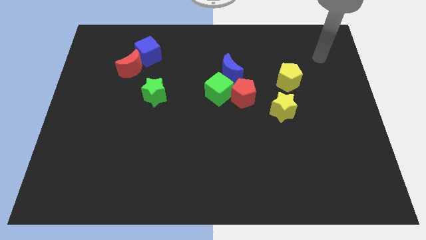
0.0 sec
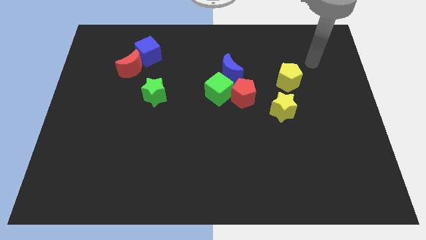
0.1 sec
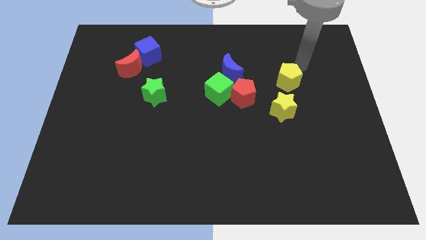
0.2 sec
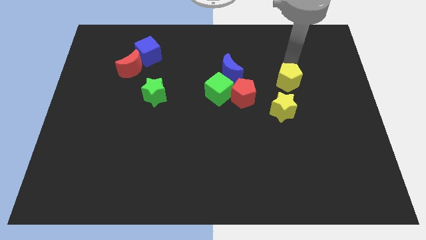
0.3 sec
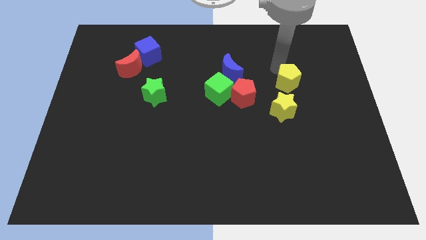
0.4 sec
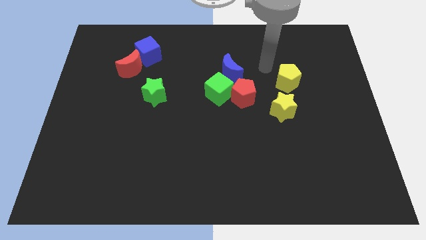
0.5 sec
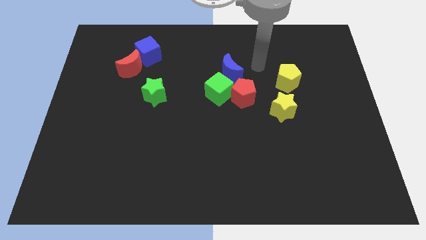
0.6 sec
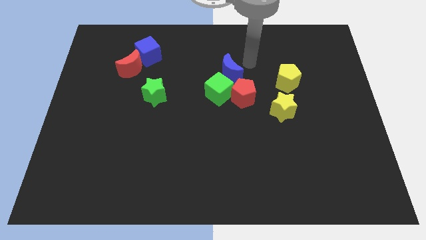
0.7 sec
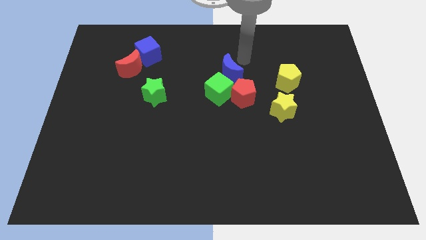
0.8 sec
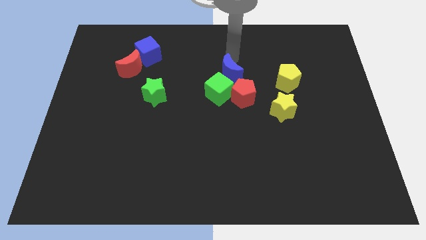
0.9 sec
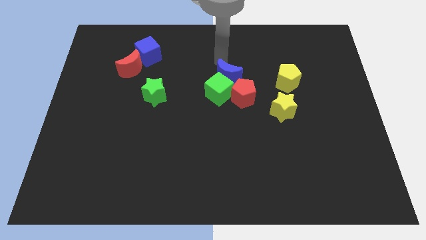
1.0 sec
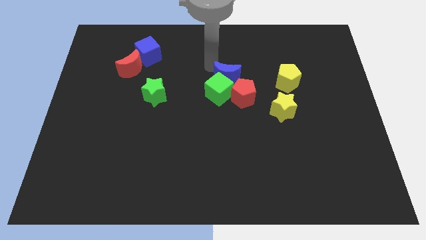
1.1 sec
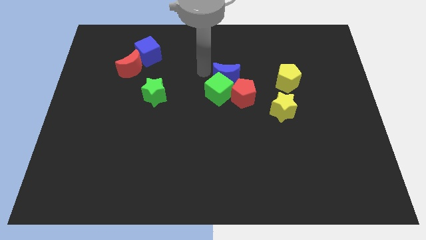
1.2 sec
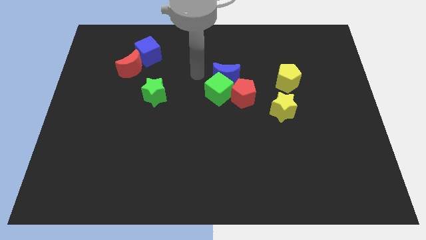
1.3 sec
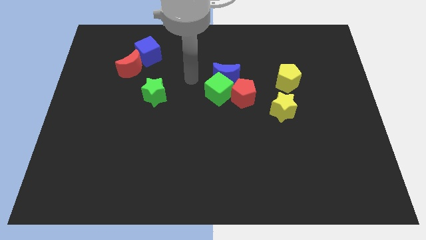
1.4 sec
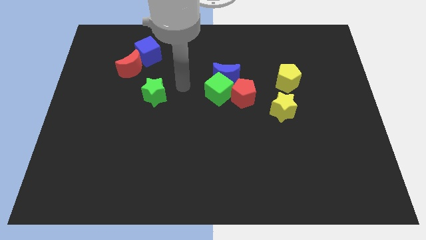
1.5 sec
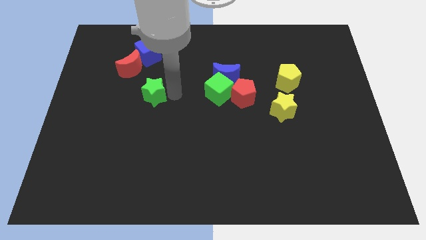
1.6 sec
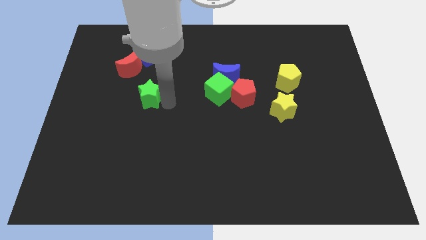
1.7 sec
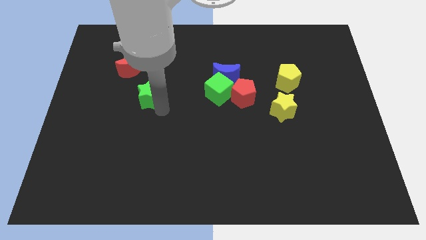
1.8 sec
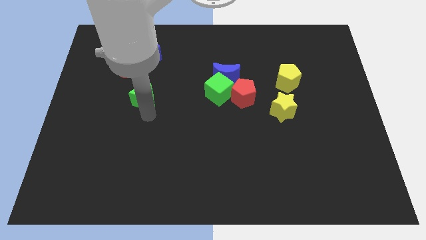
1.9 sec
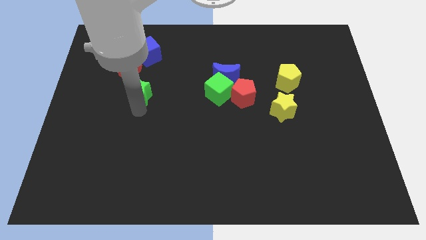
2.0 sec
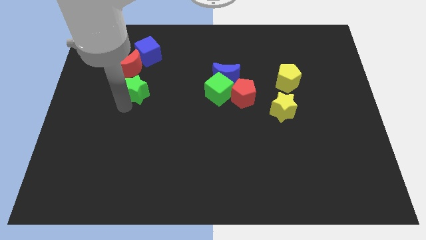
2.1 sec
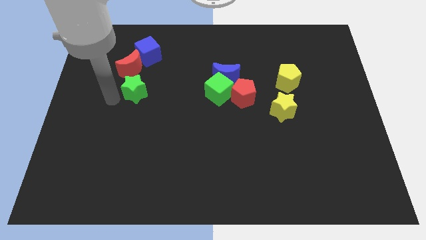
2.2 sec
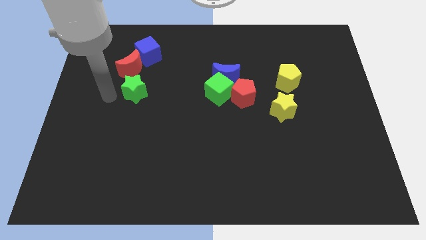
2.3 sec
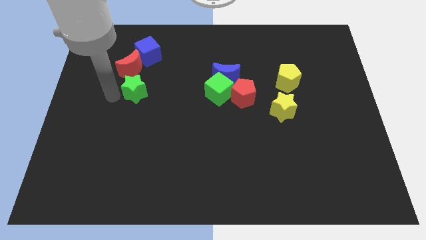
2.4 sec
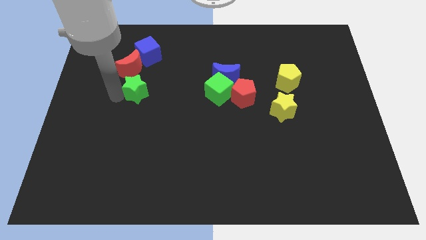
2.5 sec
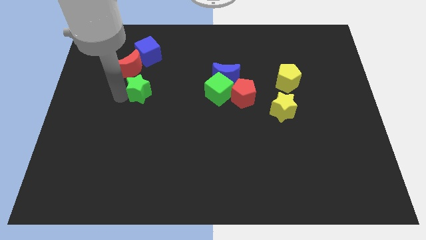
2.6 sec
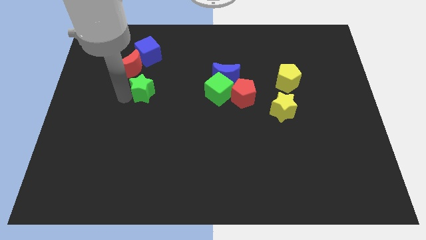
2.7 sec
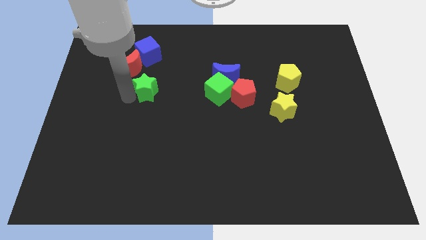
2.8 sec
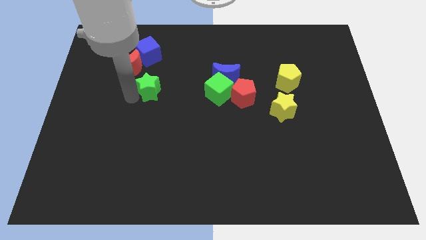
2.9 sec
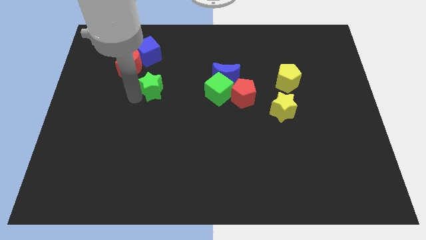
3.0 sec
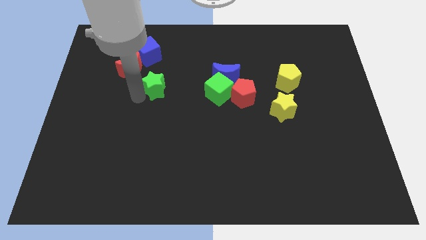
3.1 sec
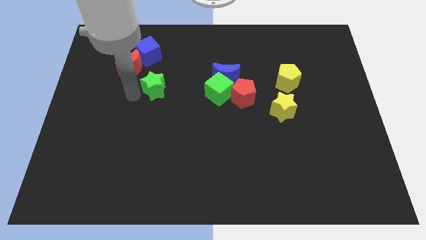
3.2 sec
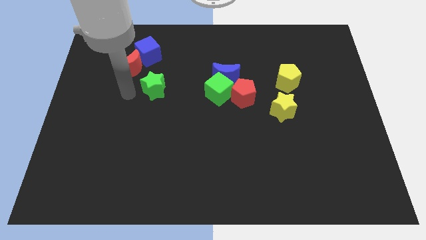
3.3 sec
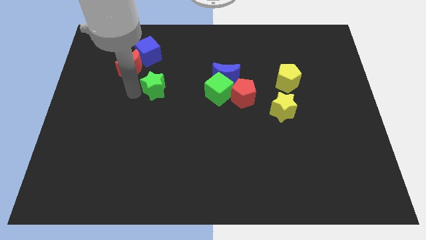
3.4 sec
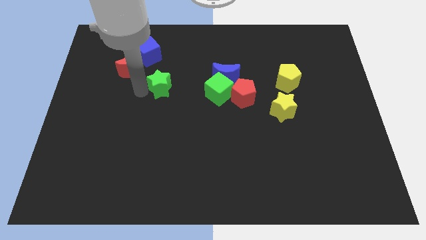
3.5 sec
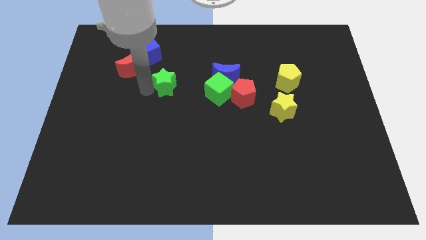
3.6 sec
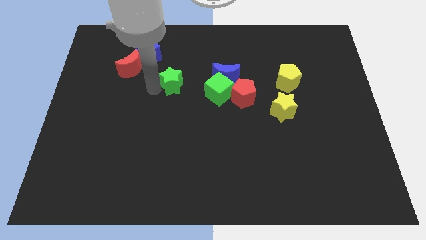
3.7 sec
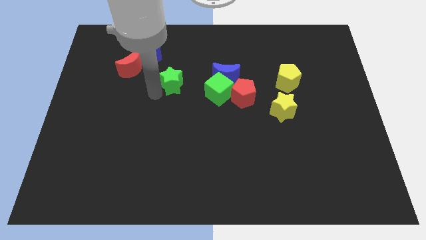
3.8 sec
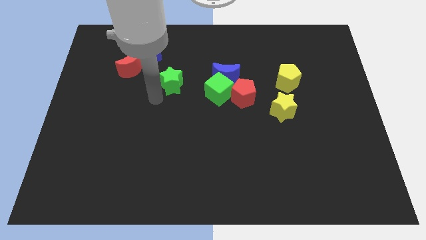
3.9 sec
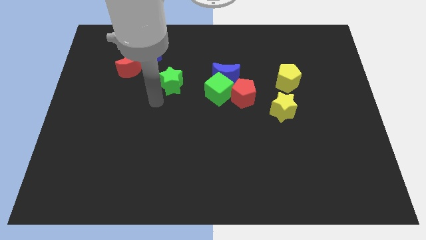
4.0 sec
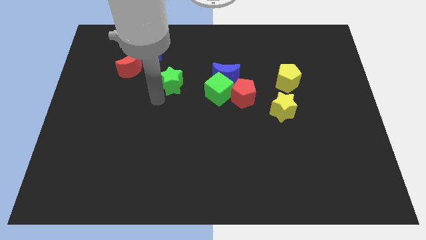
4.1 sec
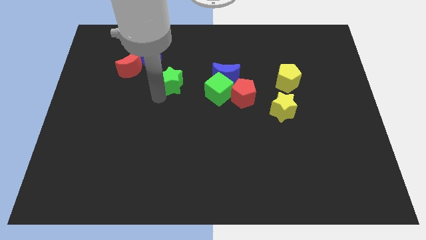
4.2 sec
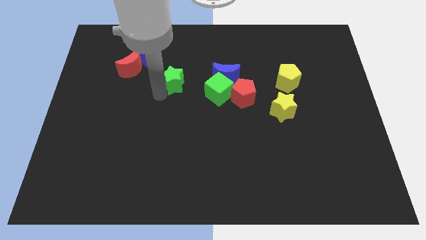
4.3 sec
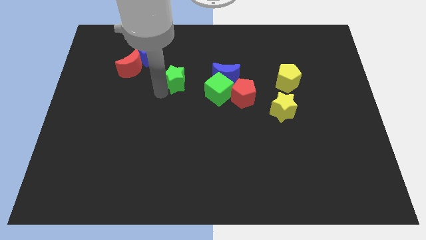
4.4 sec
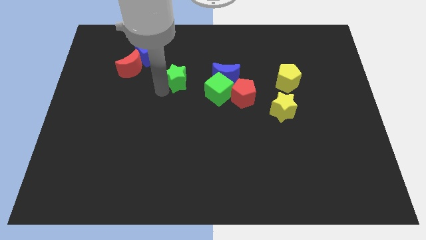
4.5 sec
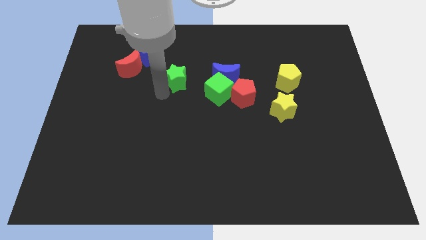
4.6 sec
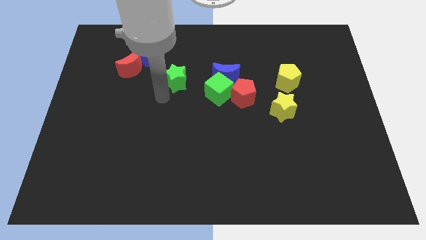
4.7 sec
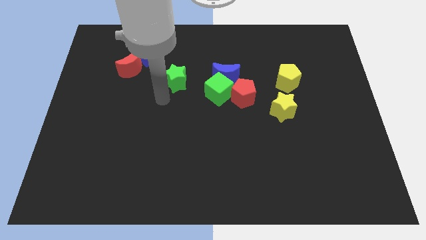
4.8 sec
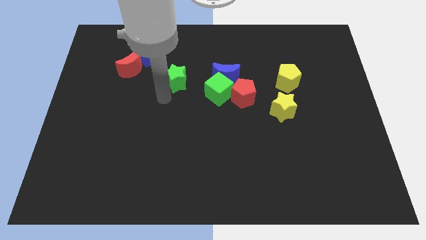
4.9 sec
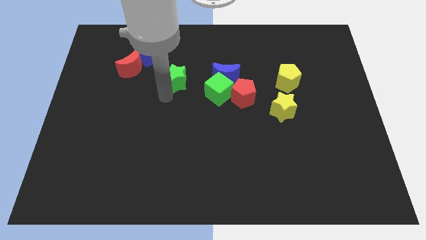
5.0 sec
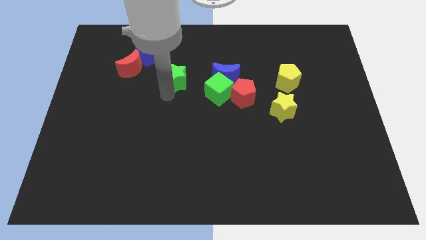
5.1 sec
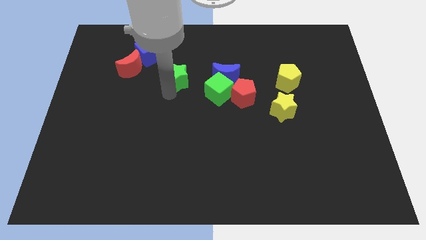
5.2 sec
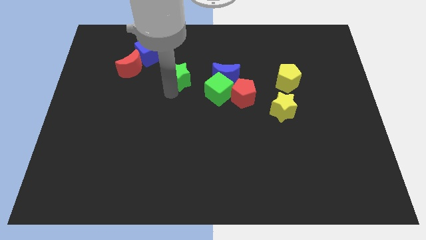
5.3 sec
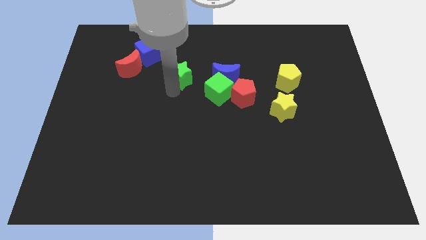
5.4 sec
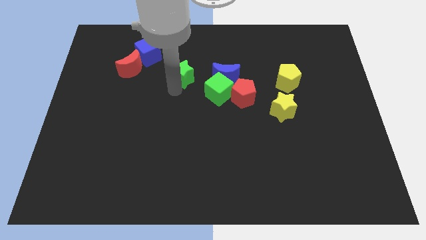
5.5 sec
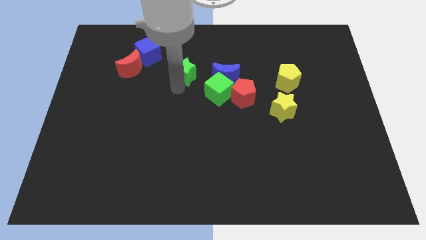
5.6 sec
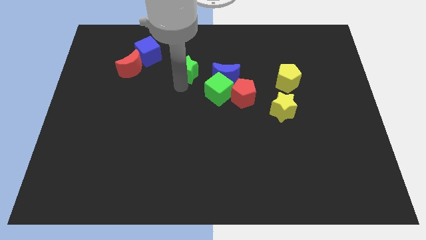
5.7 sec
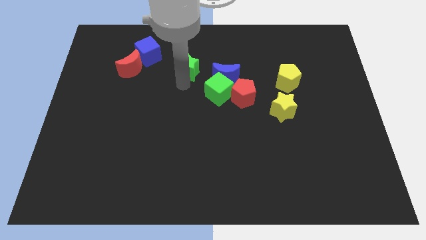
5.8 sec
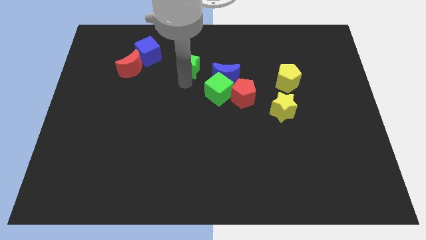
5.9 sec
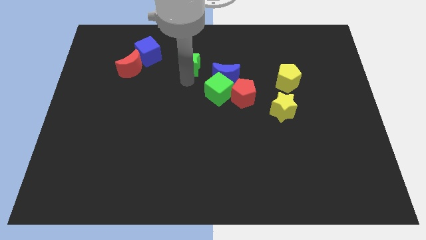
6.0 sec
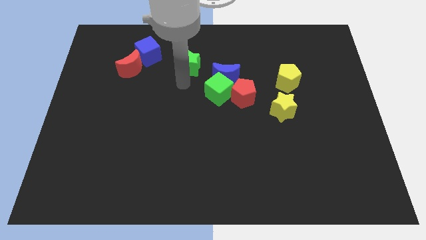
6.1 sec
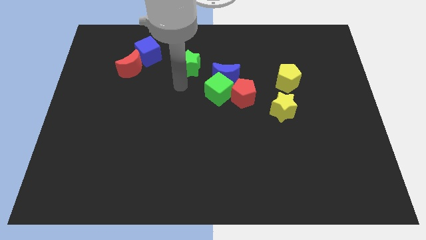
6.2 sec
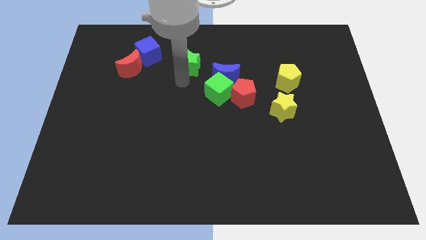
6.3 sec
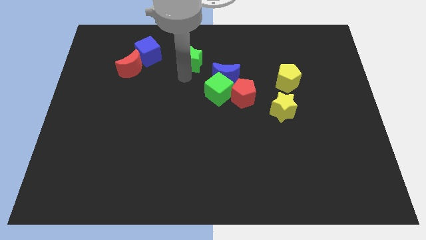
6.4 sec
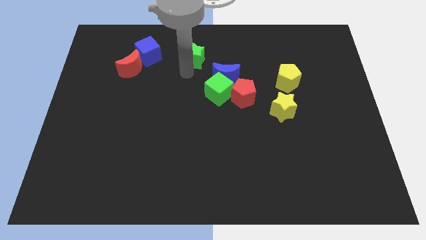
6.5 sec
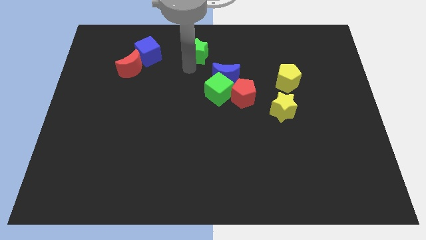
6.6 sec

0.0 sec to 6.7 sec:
slide the green star to the towards your base
